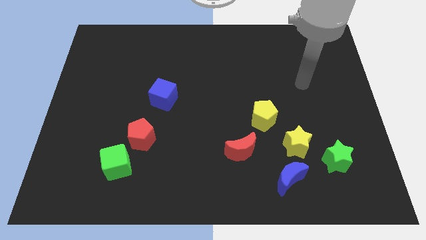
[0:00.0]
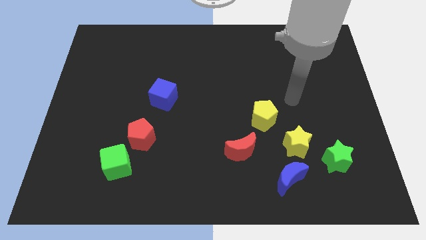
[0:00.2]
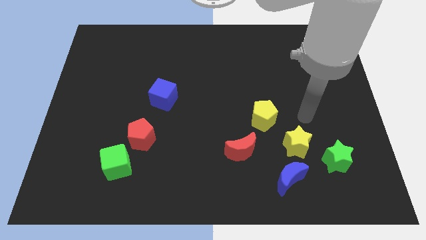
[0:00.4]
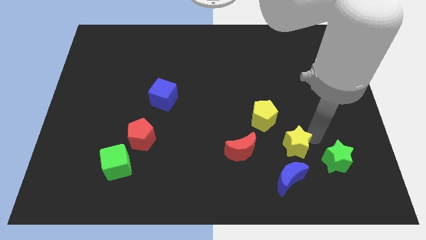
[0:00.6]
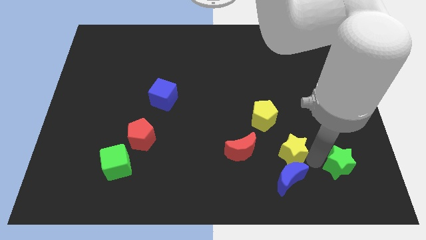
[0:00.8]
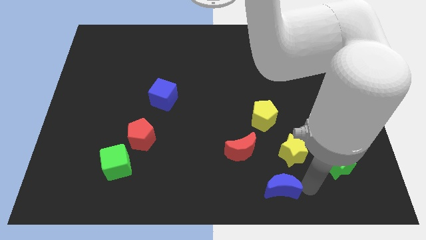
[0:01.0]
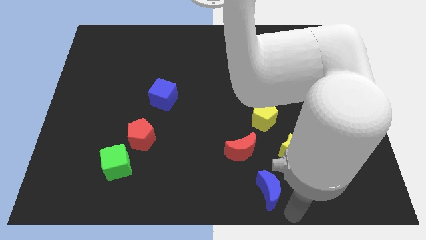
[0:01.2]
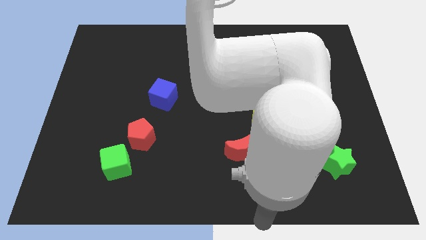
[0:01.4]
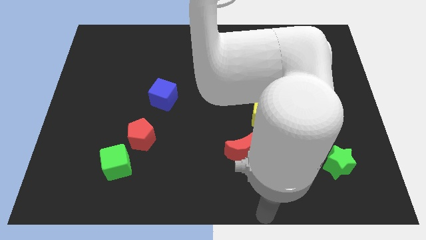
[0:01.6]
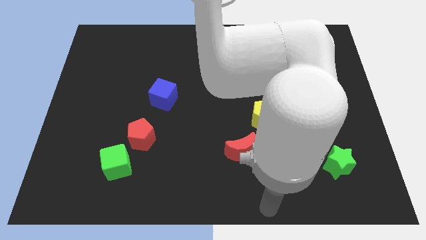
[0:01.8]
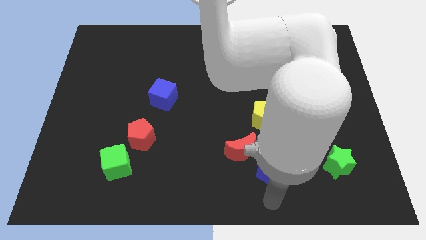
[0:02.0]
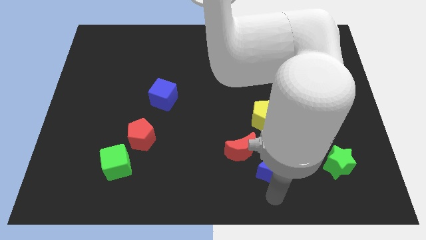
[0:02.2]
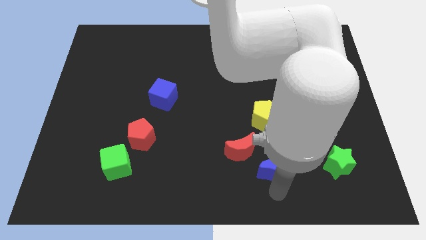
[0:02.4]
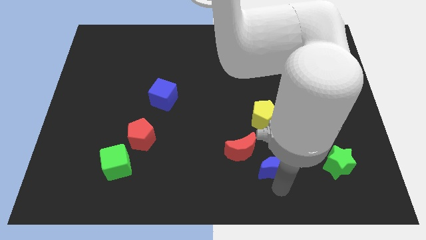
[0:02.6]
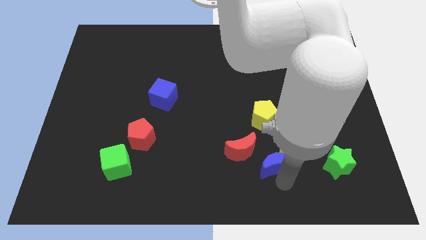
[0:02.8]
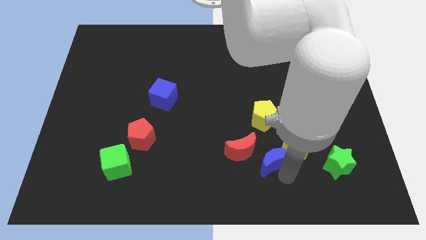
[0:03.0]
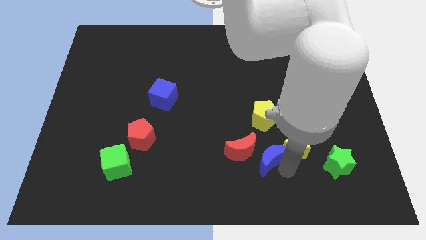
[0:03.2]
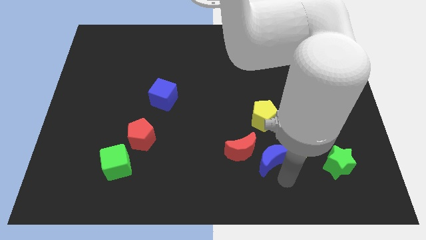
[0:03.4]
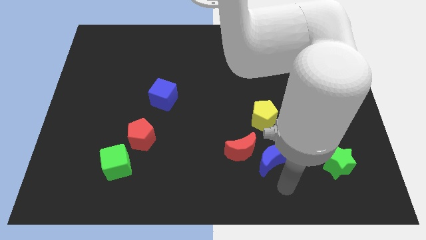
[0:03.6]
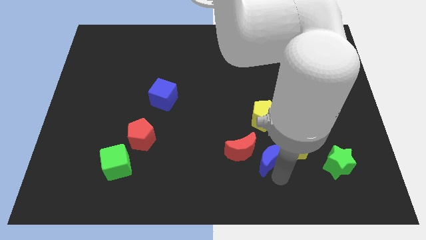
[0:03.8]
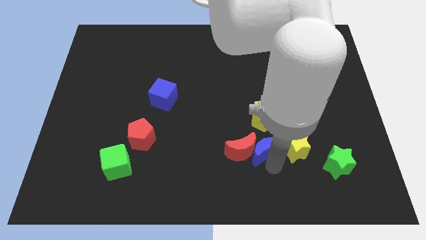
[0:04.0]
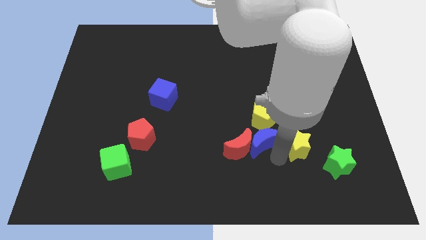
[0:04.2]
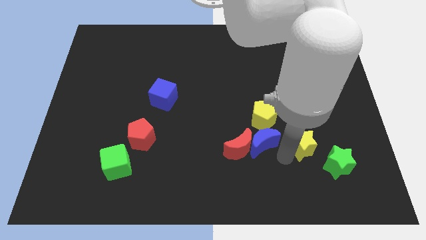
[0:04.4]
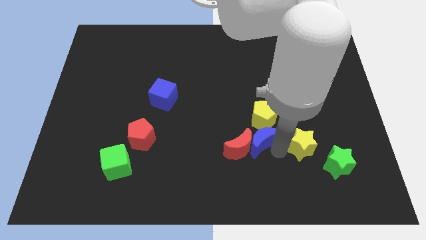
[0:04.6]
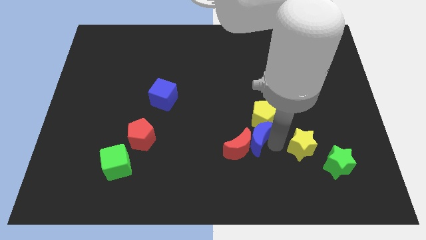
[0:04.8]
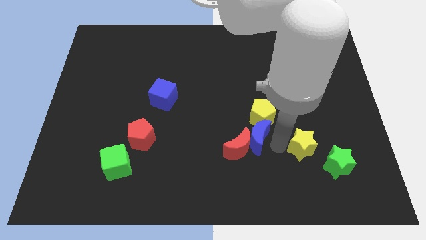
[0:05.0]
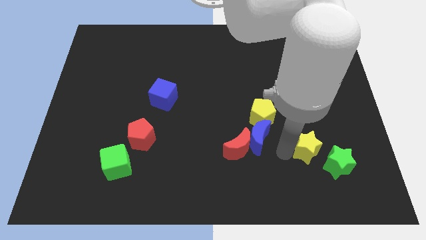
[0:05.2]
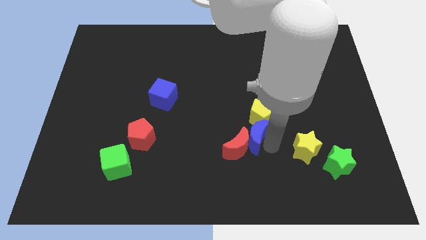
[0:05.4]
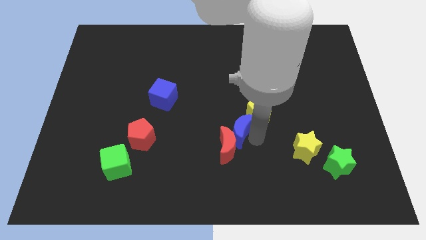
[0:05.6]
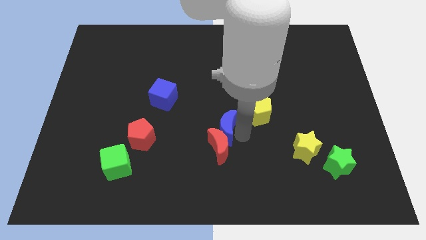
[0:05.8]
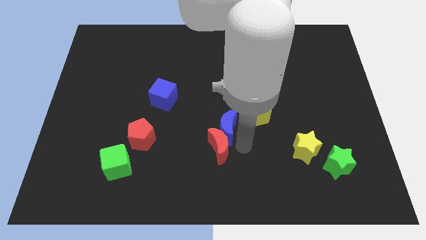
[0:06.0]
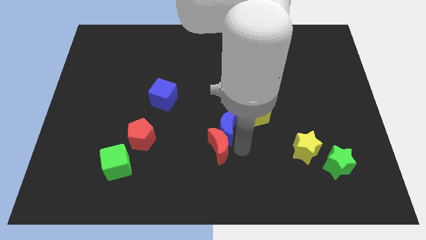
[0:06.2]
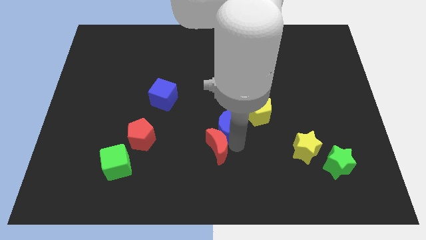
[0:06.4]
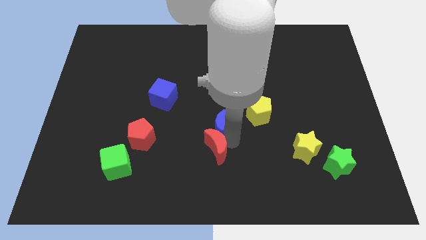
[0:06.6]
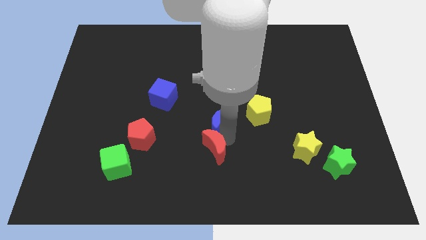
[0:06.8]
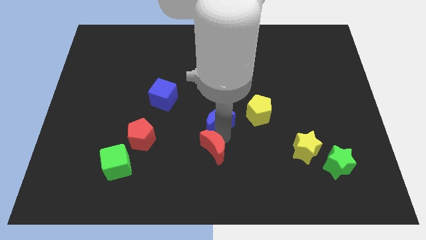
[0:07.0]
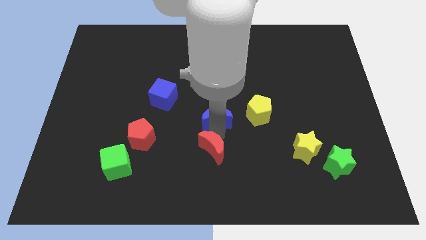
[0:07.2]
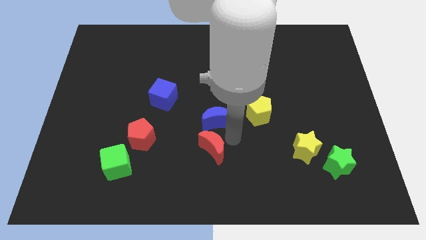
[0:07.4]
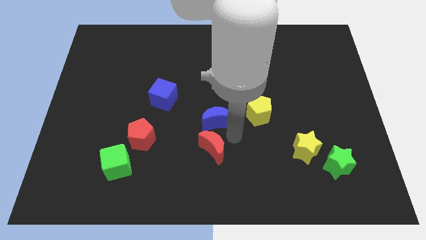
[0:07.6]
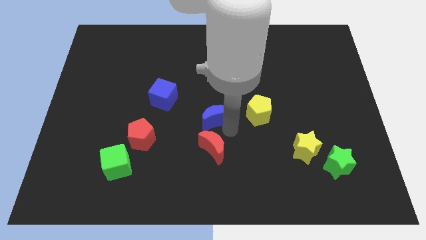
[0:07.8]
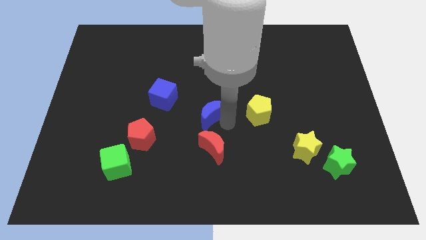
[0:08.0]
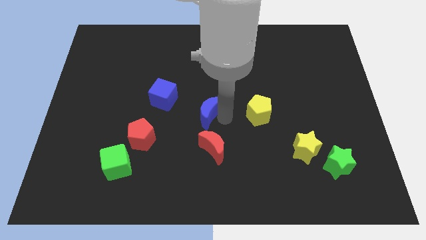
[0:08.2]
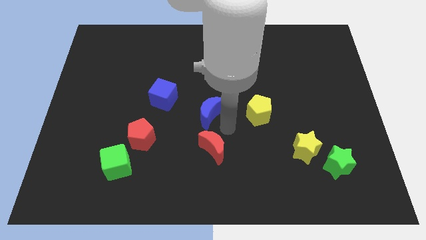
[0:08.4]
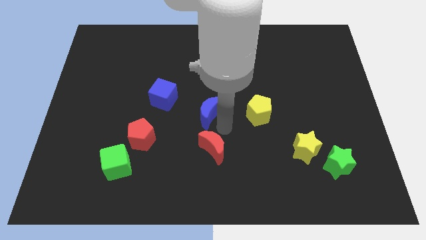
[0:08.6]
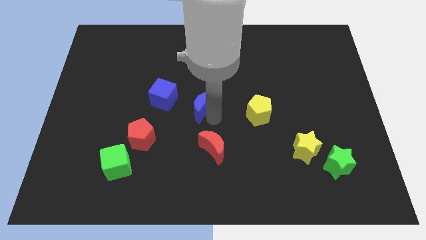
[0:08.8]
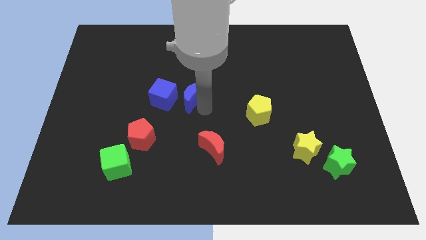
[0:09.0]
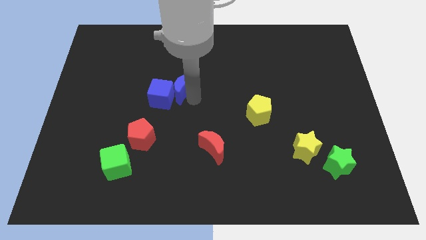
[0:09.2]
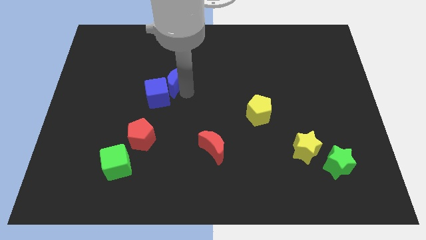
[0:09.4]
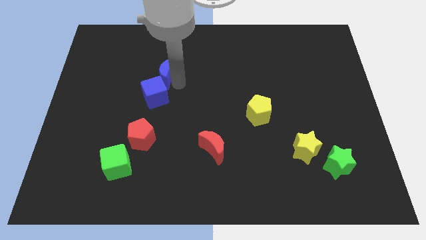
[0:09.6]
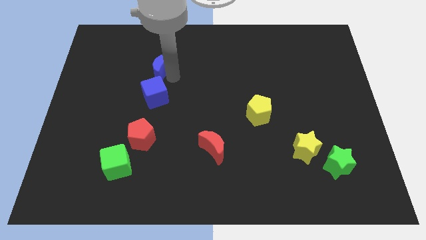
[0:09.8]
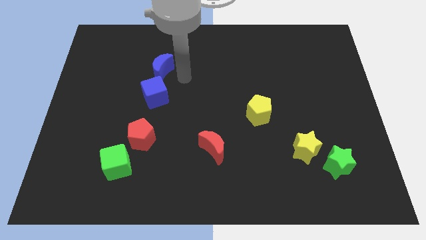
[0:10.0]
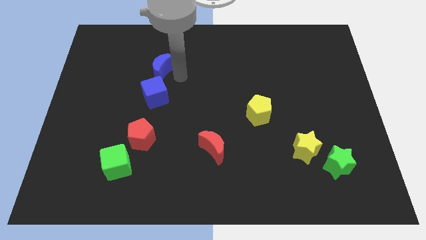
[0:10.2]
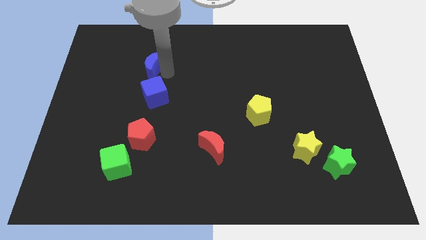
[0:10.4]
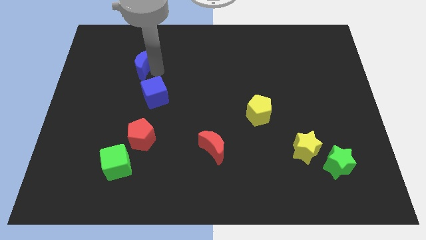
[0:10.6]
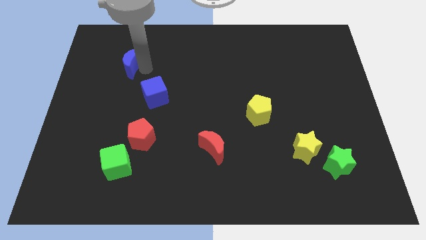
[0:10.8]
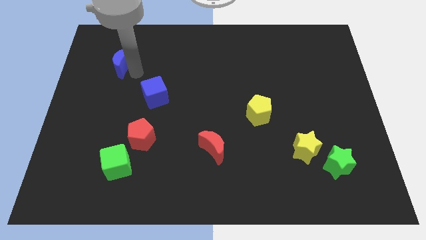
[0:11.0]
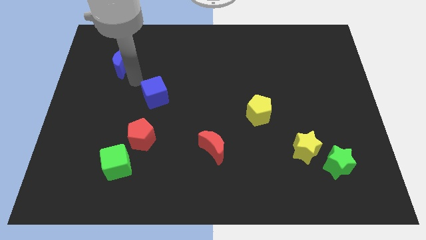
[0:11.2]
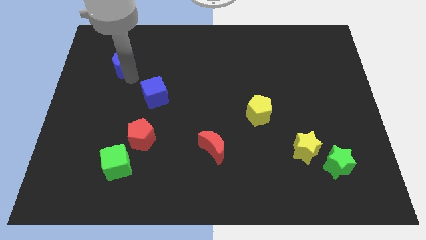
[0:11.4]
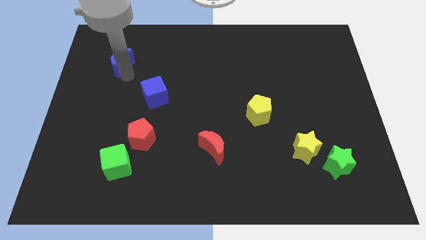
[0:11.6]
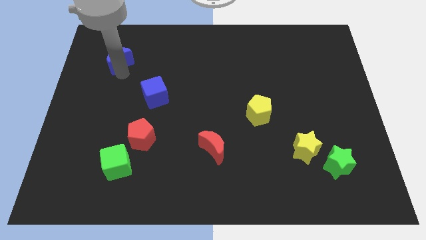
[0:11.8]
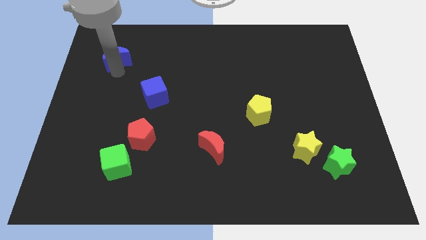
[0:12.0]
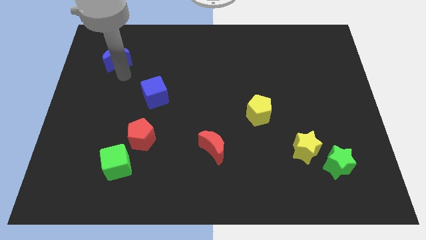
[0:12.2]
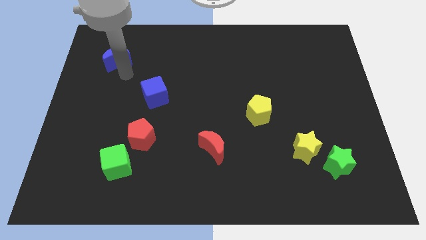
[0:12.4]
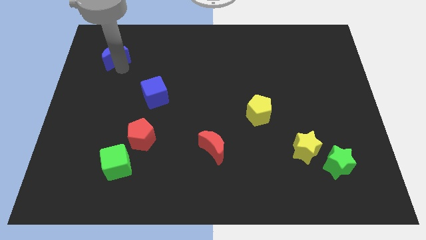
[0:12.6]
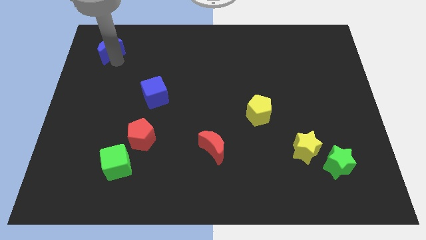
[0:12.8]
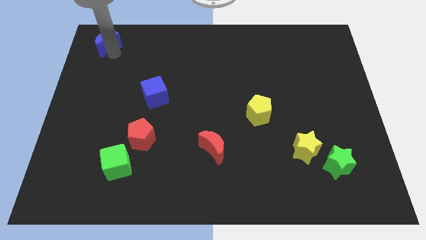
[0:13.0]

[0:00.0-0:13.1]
move the blue moon to the top left corner

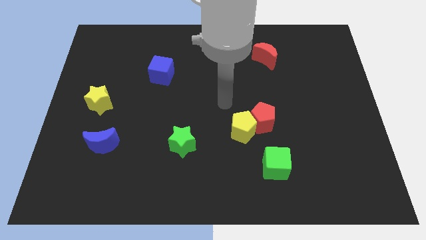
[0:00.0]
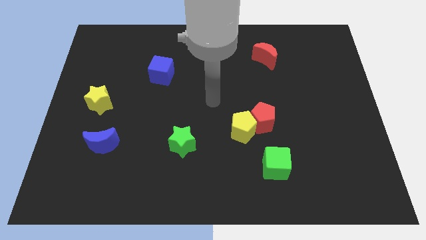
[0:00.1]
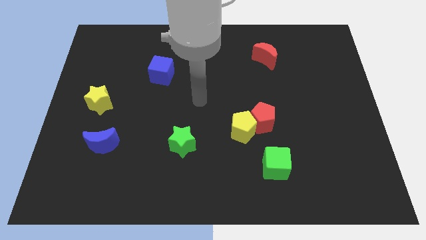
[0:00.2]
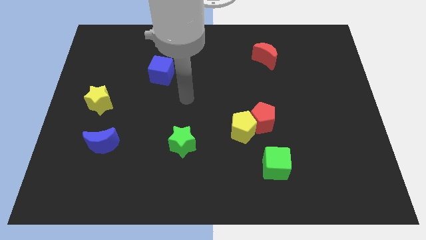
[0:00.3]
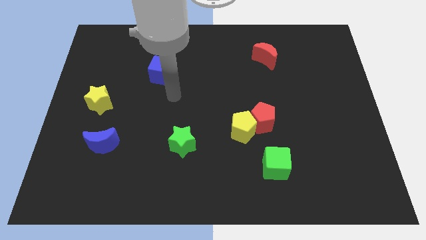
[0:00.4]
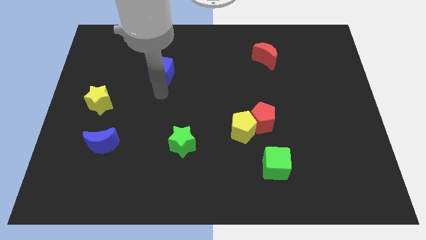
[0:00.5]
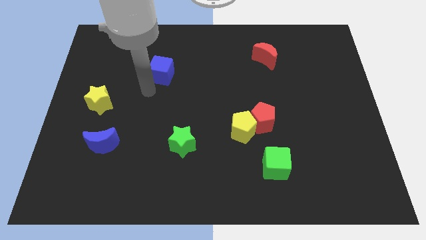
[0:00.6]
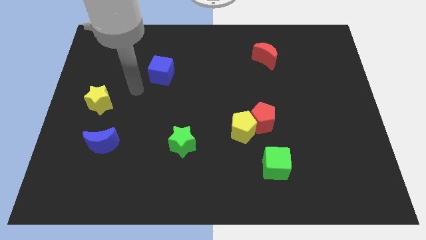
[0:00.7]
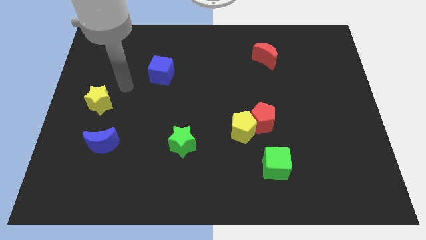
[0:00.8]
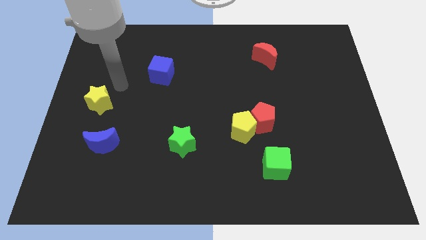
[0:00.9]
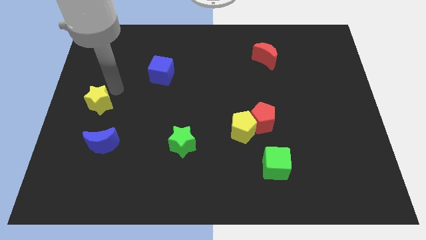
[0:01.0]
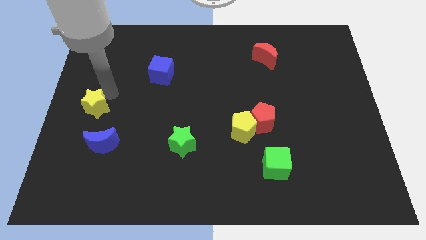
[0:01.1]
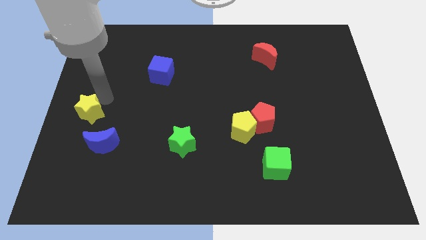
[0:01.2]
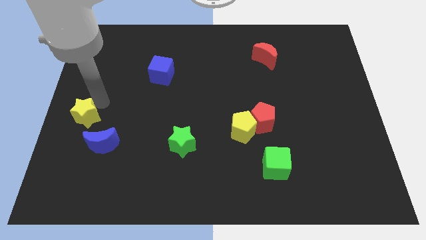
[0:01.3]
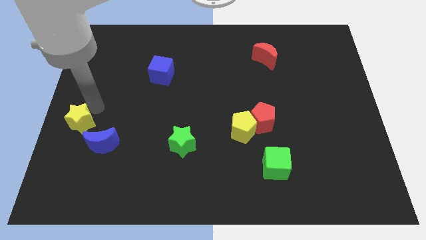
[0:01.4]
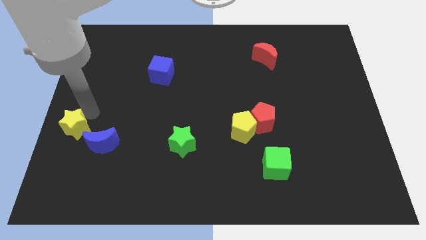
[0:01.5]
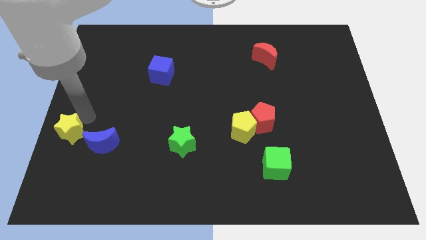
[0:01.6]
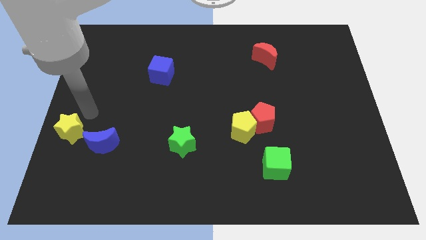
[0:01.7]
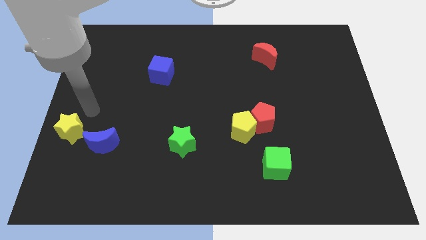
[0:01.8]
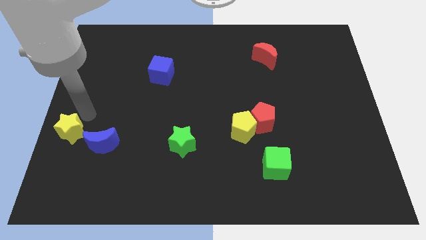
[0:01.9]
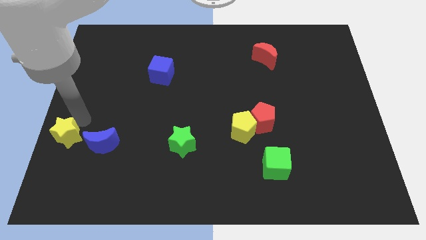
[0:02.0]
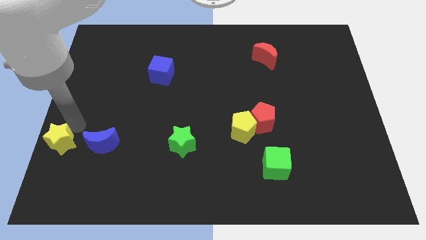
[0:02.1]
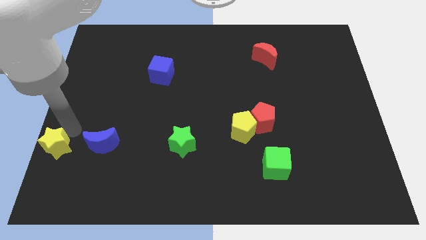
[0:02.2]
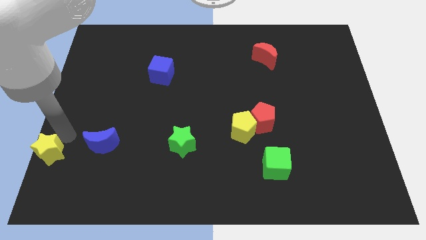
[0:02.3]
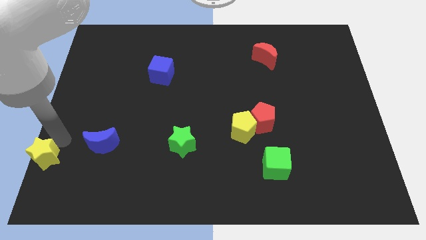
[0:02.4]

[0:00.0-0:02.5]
slide the yellow star to the bottom left of the board
